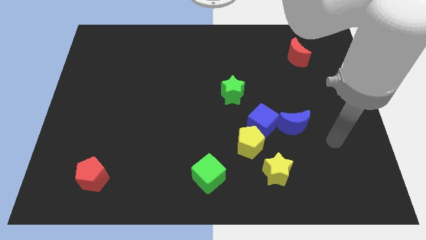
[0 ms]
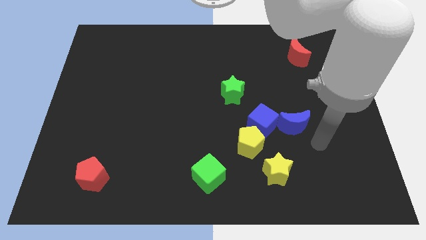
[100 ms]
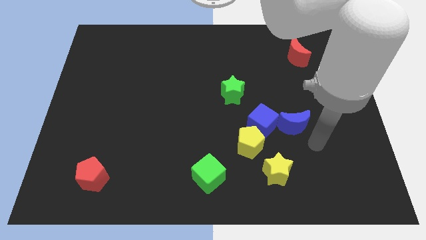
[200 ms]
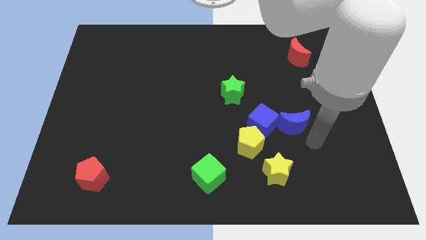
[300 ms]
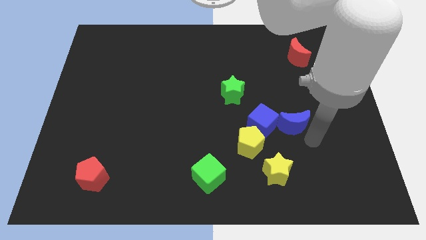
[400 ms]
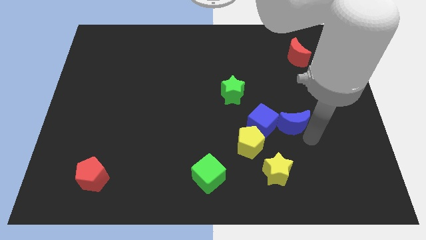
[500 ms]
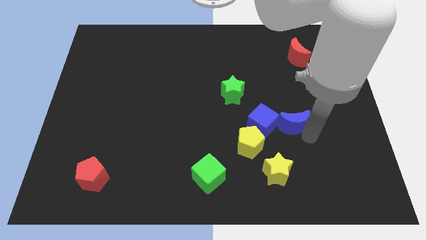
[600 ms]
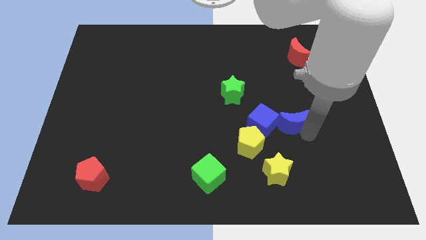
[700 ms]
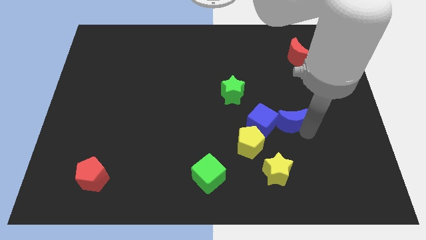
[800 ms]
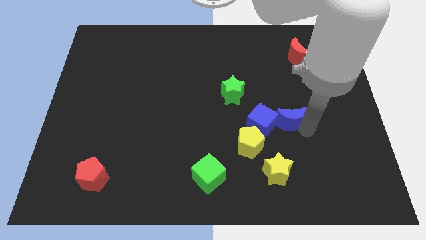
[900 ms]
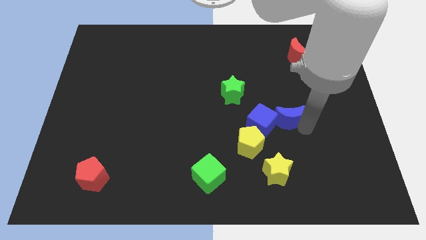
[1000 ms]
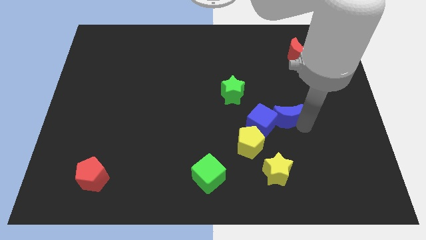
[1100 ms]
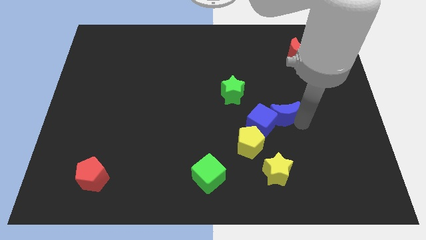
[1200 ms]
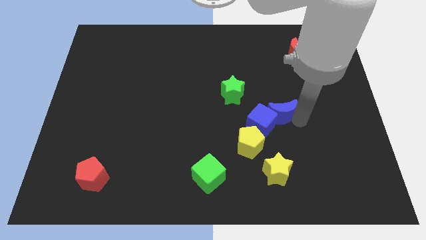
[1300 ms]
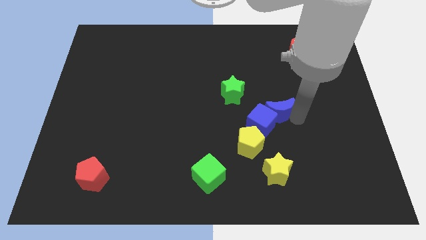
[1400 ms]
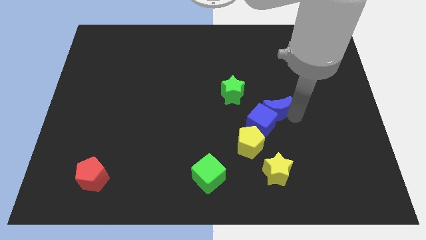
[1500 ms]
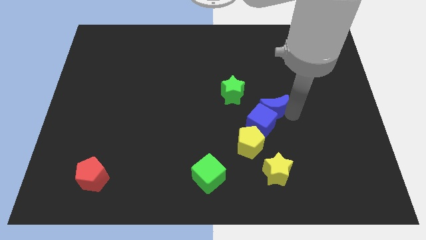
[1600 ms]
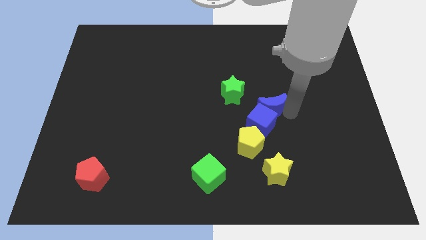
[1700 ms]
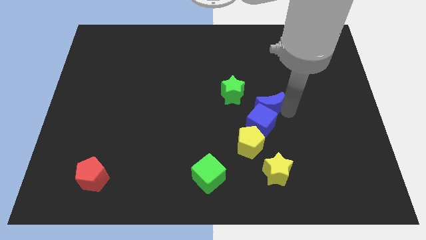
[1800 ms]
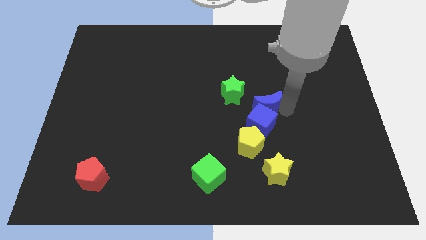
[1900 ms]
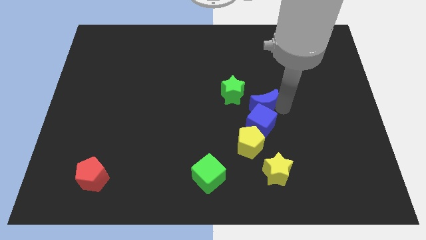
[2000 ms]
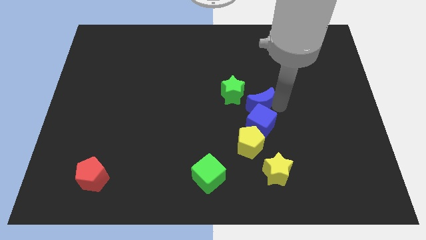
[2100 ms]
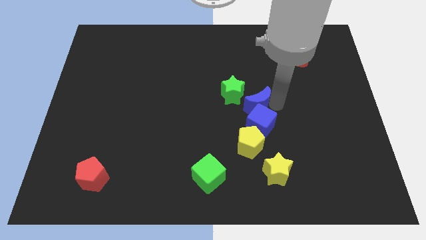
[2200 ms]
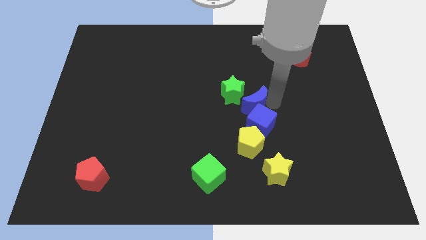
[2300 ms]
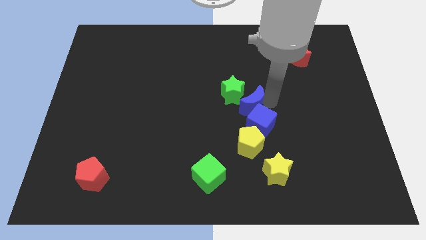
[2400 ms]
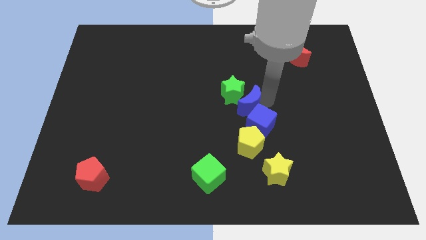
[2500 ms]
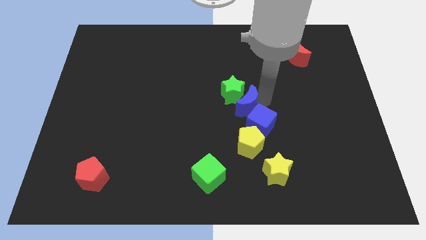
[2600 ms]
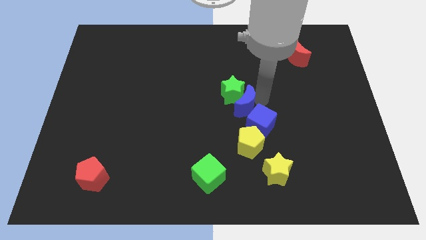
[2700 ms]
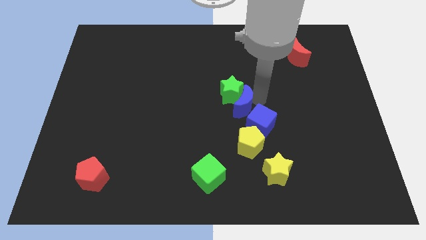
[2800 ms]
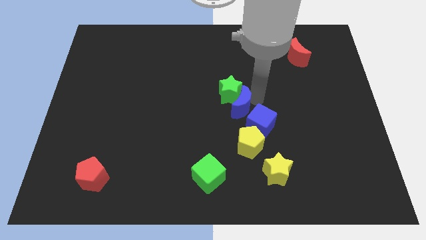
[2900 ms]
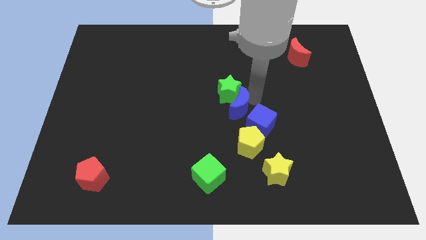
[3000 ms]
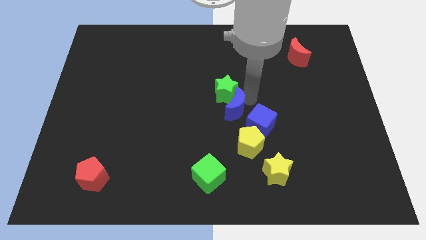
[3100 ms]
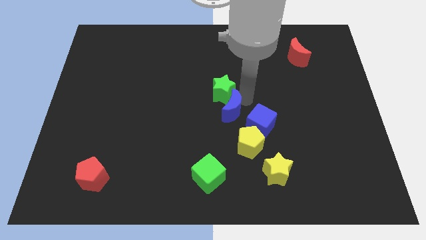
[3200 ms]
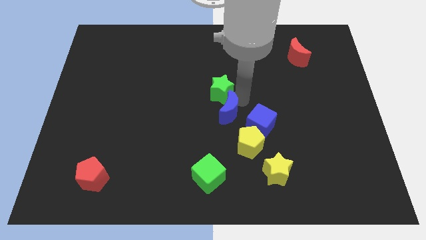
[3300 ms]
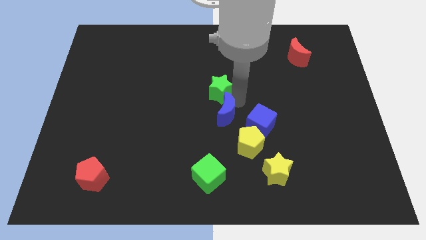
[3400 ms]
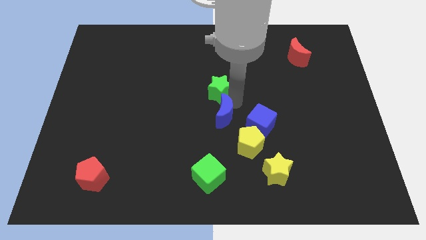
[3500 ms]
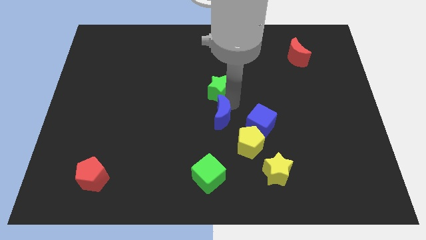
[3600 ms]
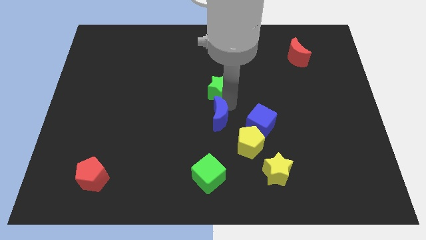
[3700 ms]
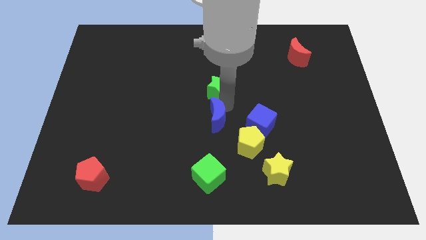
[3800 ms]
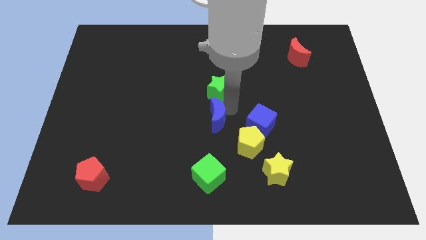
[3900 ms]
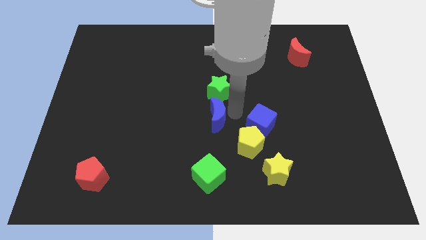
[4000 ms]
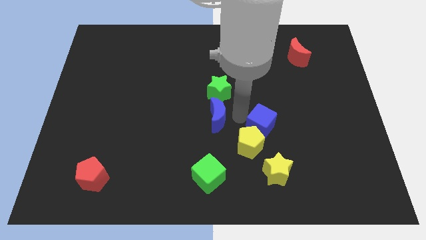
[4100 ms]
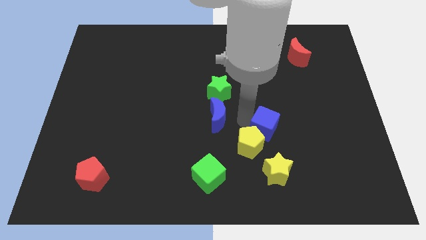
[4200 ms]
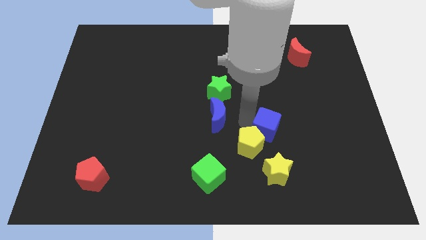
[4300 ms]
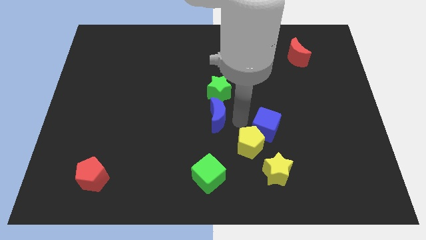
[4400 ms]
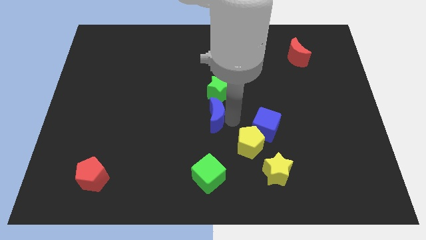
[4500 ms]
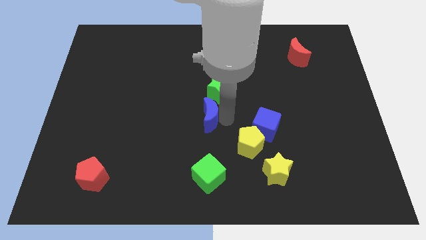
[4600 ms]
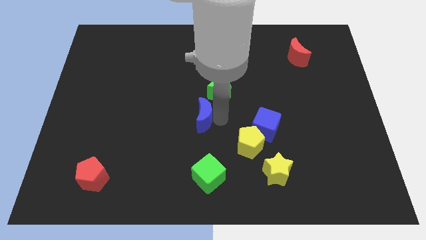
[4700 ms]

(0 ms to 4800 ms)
push the blue moon left

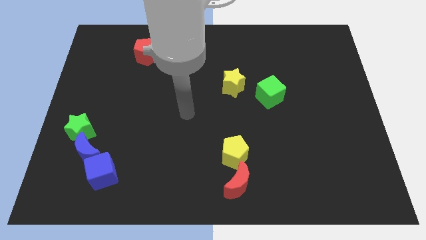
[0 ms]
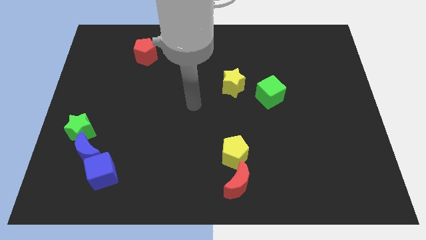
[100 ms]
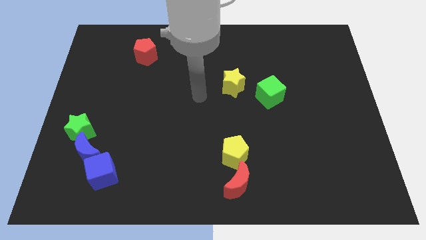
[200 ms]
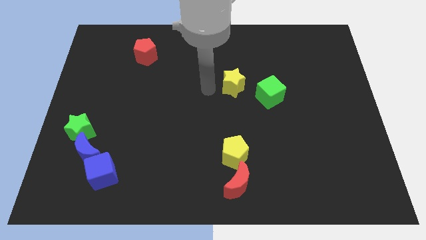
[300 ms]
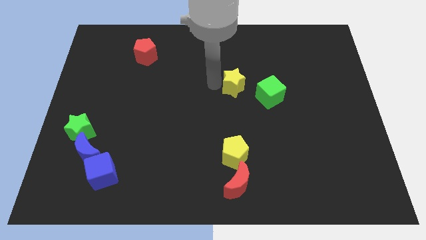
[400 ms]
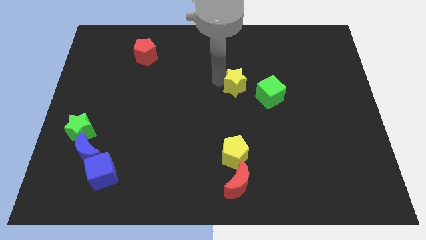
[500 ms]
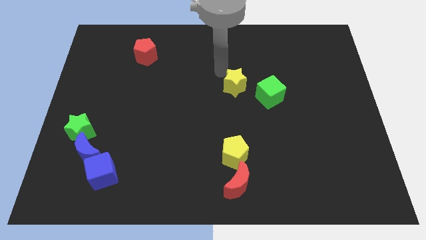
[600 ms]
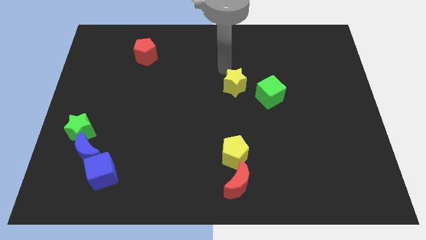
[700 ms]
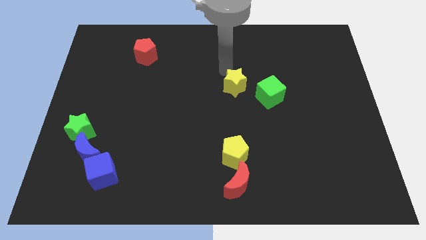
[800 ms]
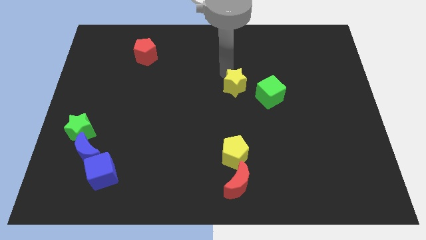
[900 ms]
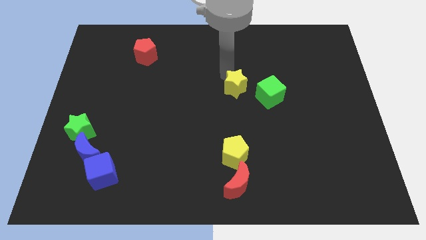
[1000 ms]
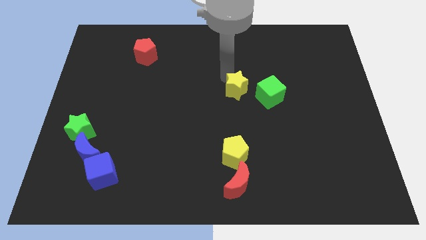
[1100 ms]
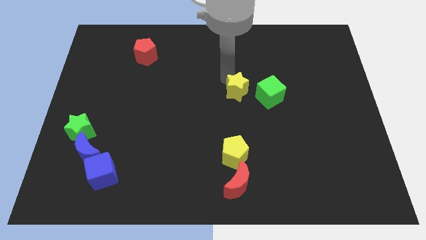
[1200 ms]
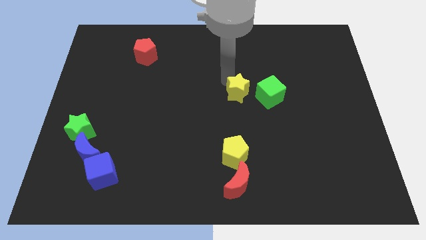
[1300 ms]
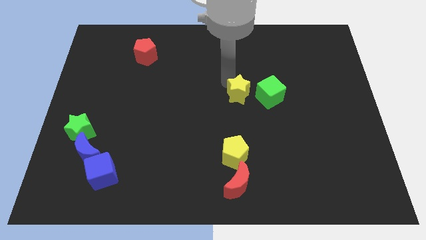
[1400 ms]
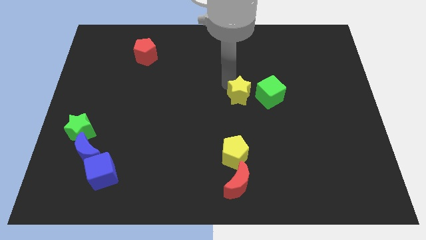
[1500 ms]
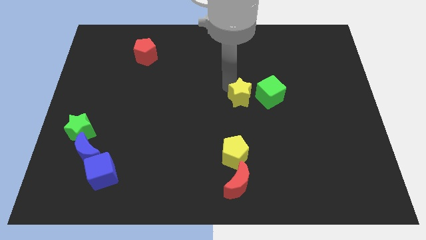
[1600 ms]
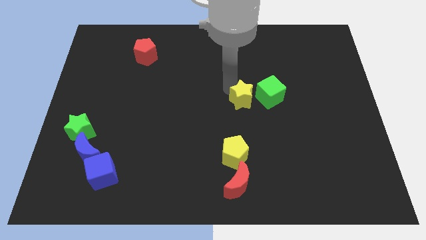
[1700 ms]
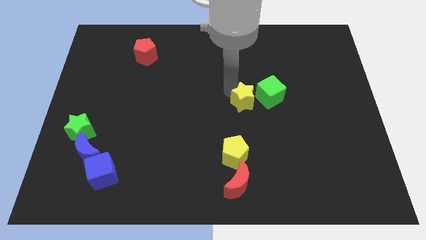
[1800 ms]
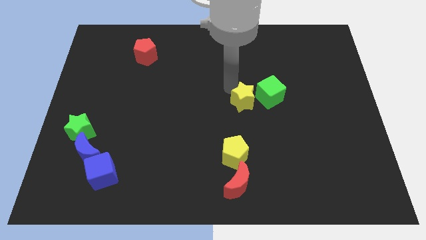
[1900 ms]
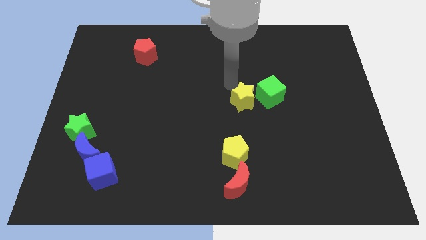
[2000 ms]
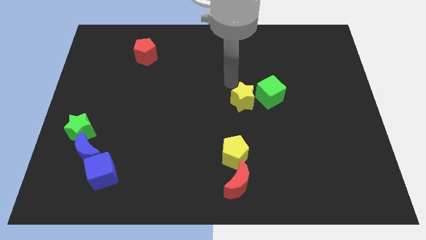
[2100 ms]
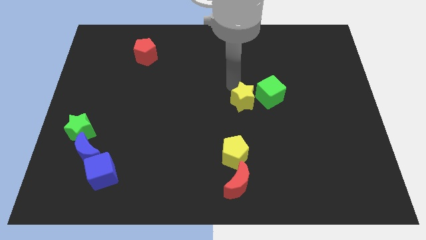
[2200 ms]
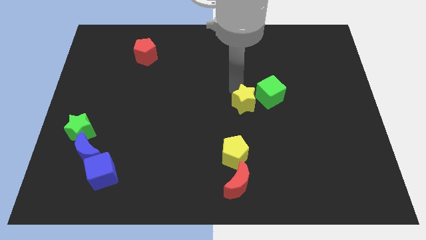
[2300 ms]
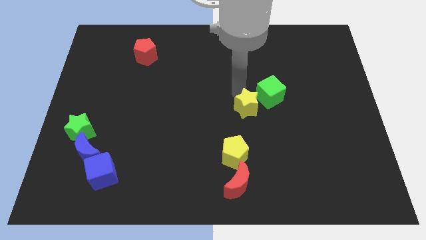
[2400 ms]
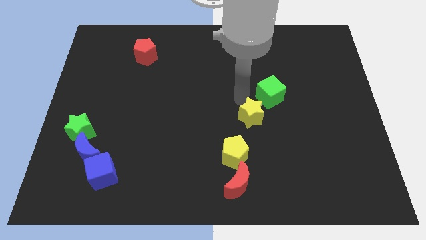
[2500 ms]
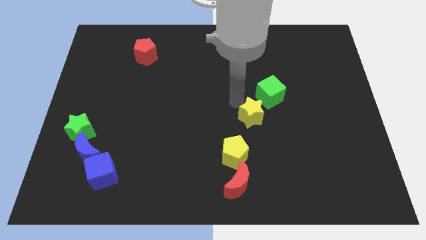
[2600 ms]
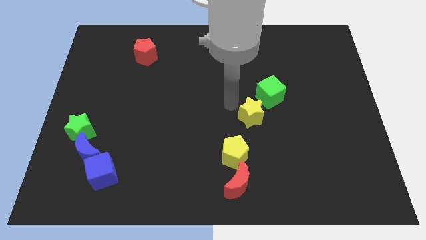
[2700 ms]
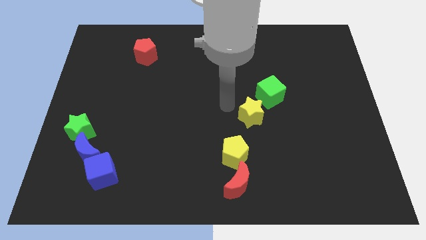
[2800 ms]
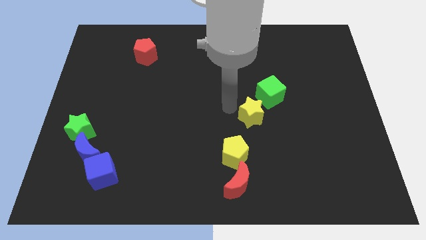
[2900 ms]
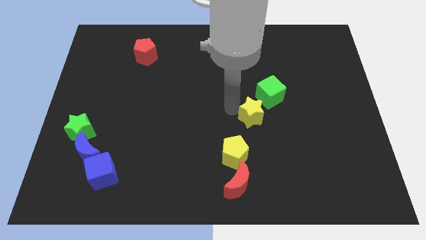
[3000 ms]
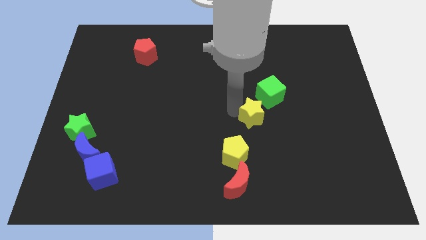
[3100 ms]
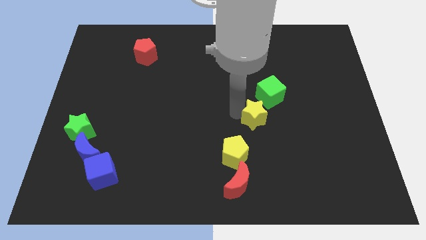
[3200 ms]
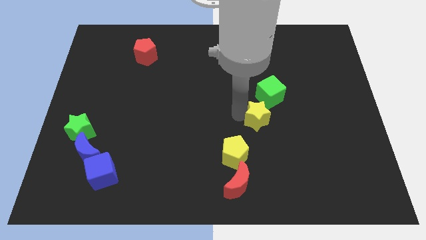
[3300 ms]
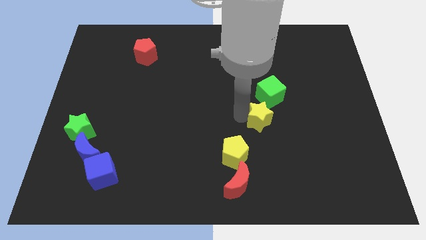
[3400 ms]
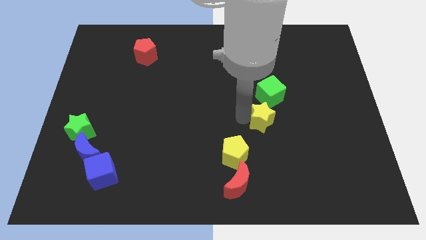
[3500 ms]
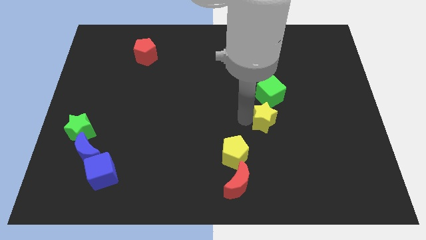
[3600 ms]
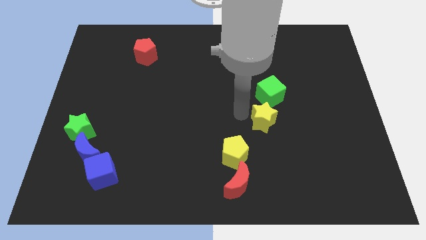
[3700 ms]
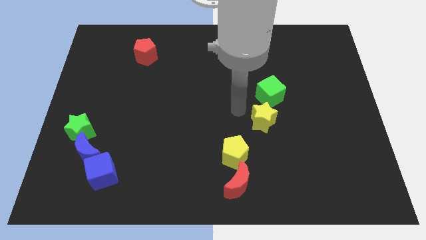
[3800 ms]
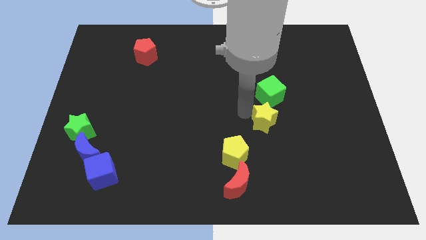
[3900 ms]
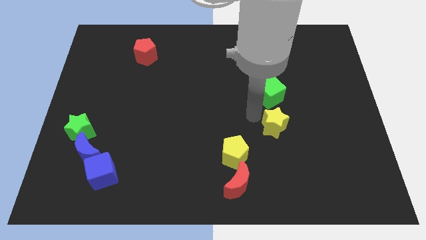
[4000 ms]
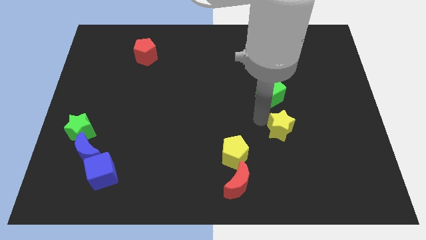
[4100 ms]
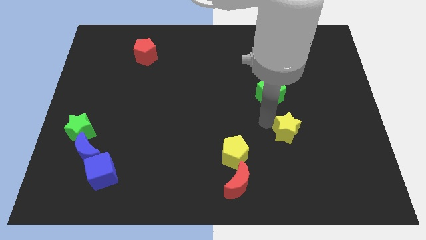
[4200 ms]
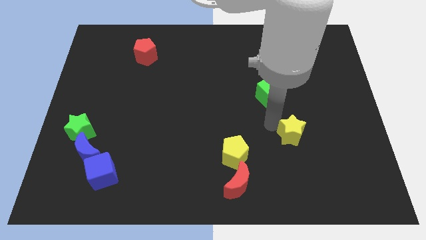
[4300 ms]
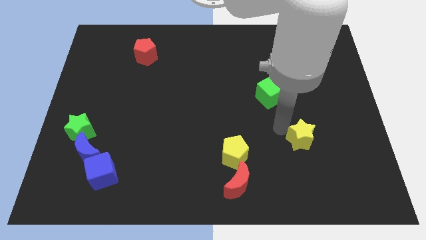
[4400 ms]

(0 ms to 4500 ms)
push the yellow star down and then right
